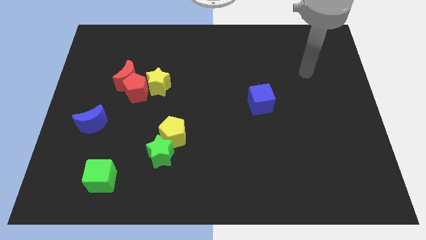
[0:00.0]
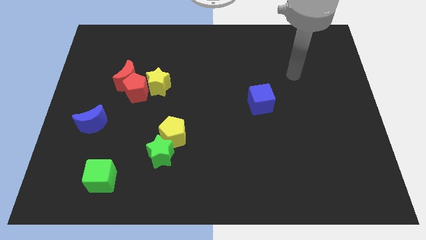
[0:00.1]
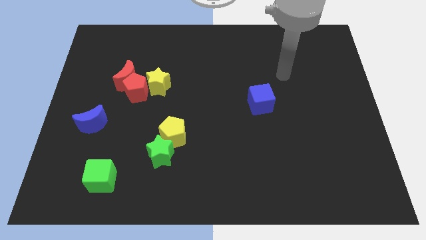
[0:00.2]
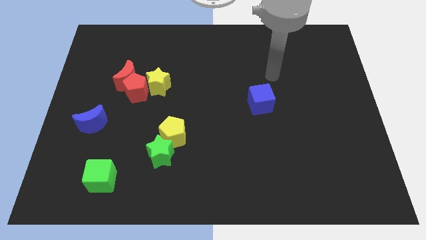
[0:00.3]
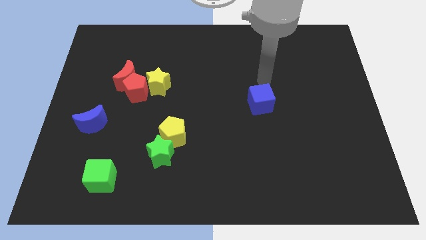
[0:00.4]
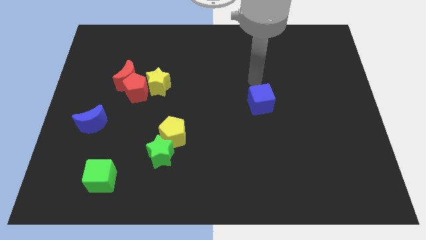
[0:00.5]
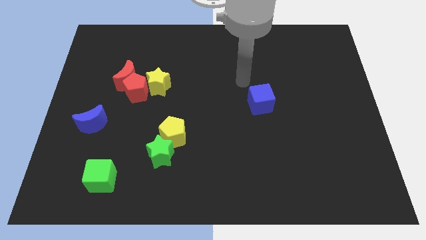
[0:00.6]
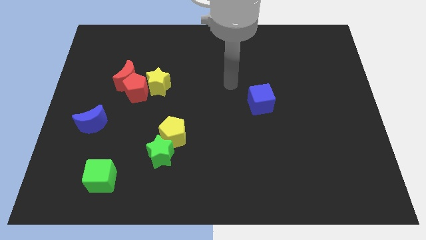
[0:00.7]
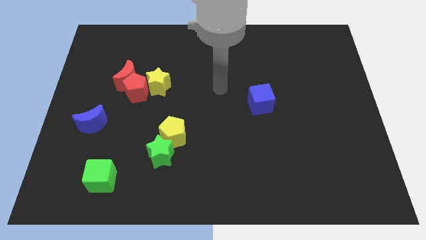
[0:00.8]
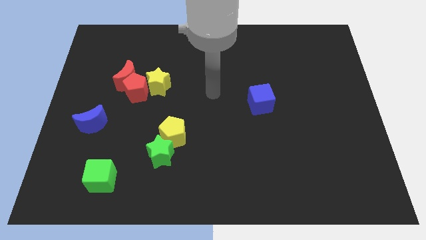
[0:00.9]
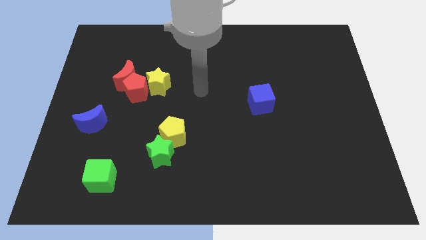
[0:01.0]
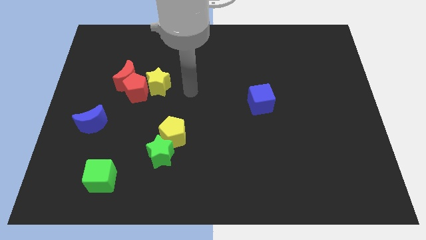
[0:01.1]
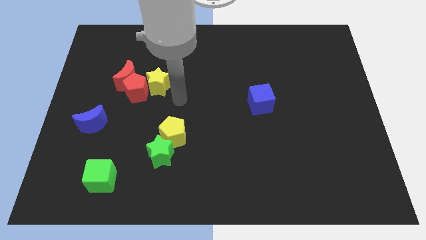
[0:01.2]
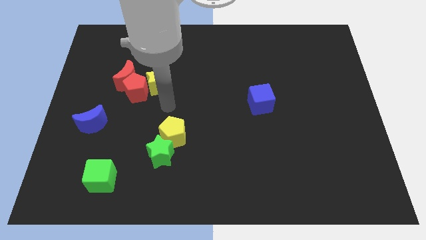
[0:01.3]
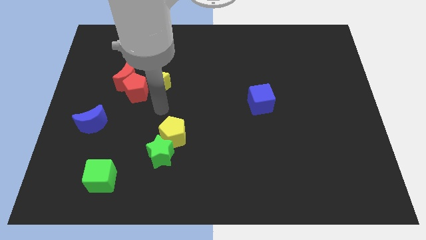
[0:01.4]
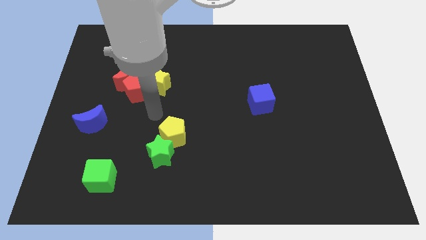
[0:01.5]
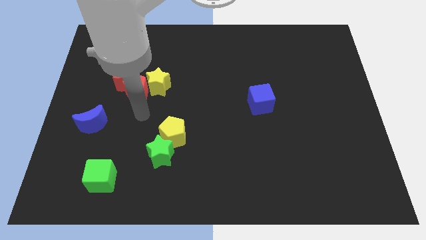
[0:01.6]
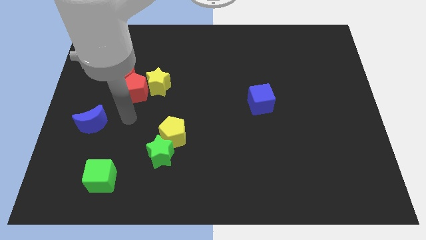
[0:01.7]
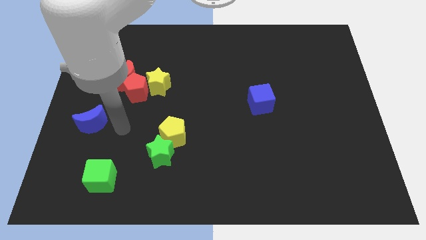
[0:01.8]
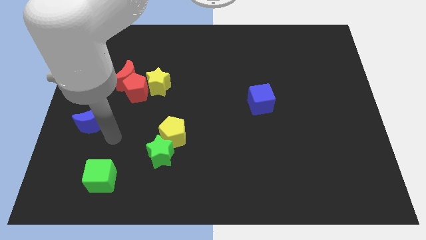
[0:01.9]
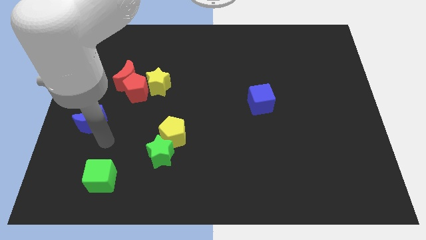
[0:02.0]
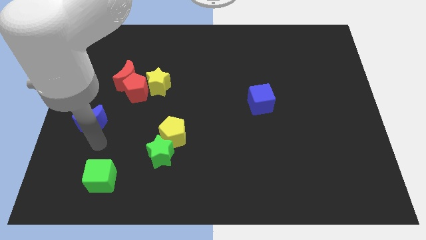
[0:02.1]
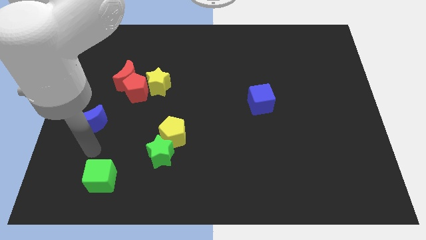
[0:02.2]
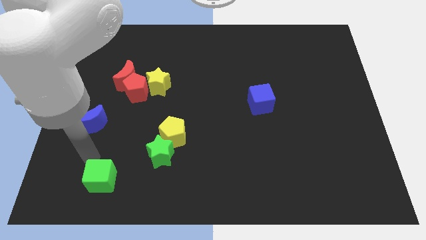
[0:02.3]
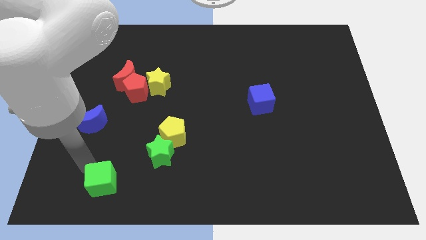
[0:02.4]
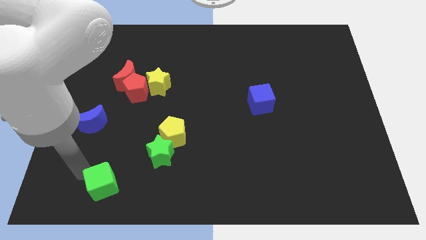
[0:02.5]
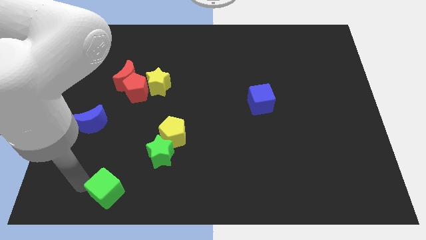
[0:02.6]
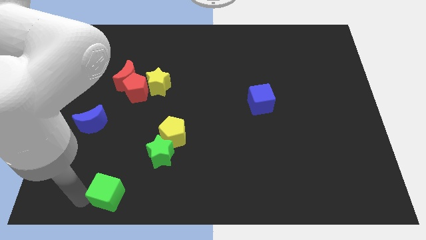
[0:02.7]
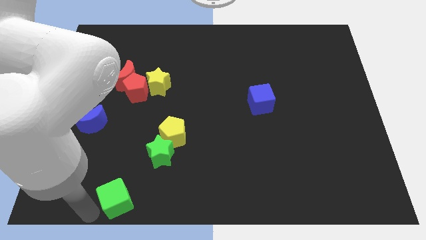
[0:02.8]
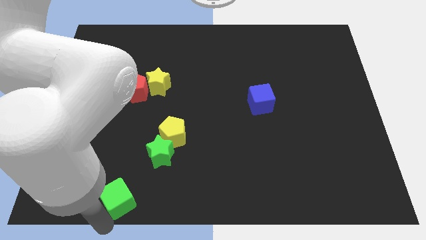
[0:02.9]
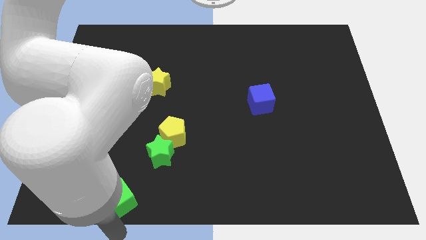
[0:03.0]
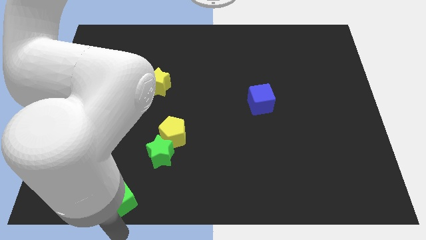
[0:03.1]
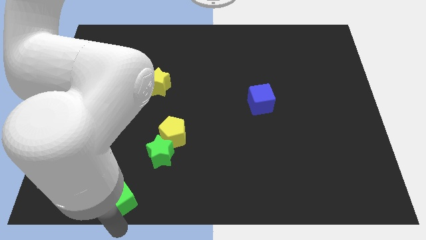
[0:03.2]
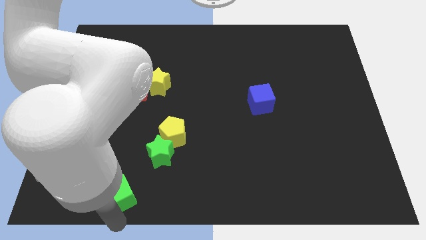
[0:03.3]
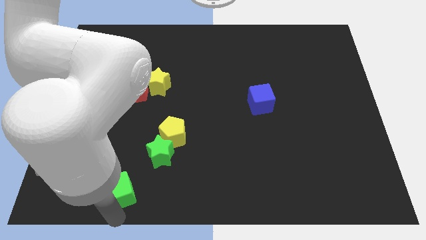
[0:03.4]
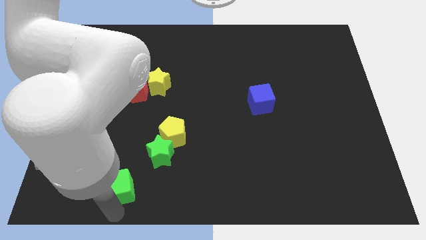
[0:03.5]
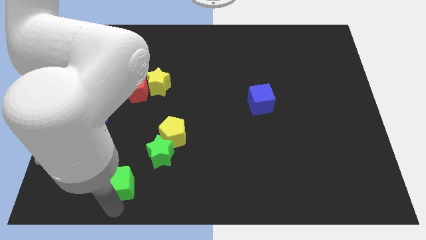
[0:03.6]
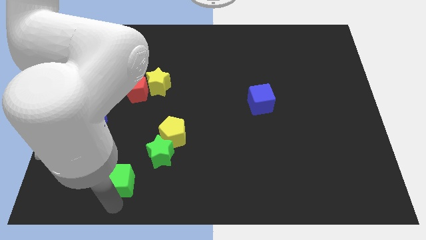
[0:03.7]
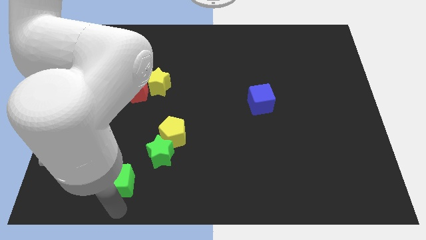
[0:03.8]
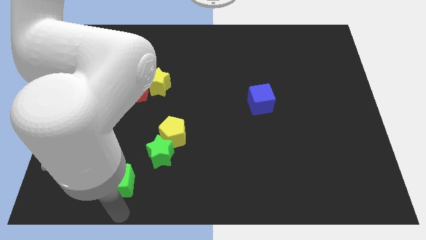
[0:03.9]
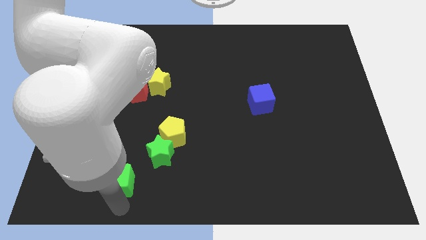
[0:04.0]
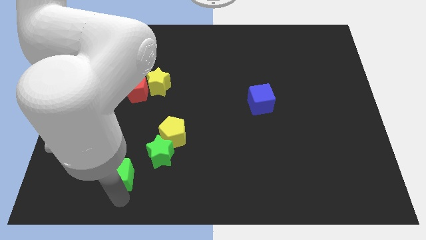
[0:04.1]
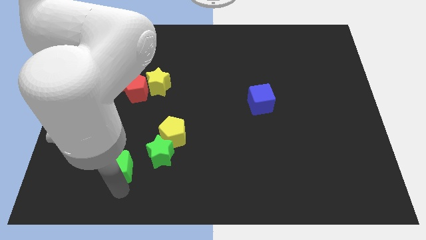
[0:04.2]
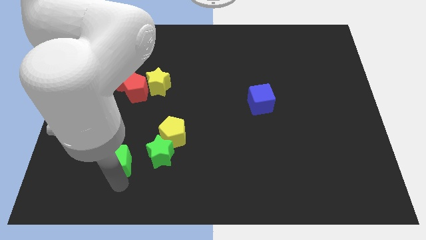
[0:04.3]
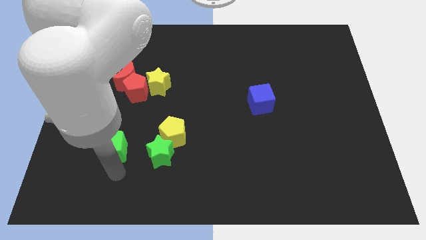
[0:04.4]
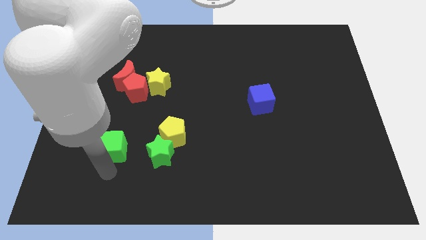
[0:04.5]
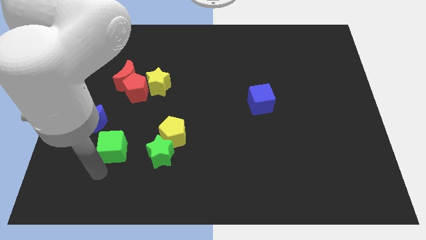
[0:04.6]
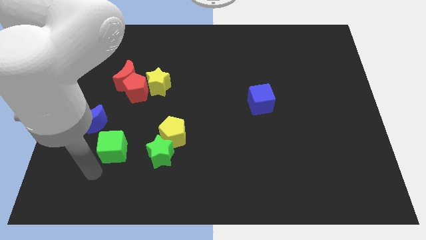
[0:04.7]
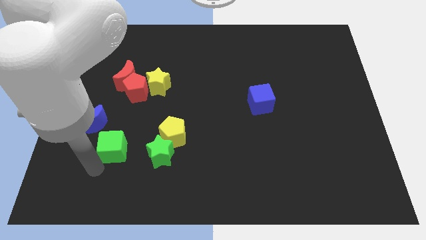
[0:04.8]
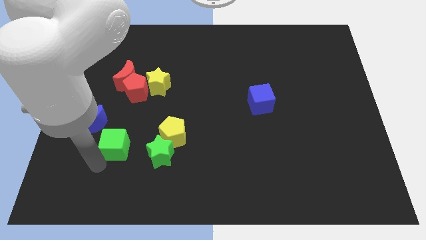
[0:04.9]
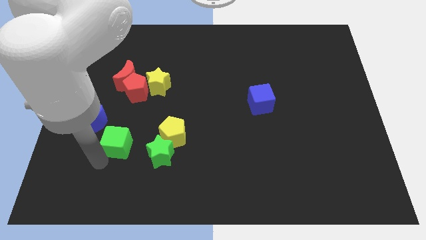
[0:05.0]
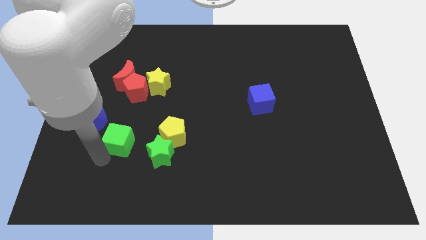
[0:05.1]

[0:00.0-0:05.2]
slide the green cube to the right side of the blue moon

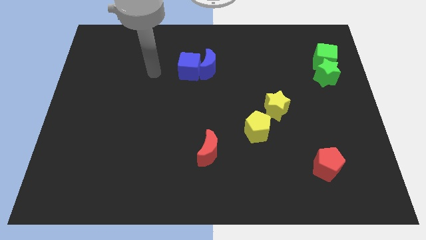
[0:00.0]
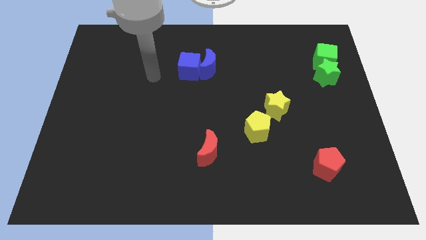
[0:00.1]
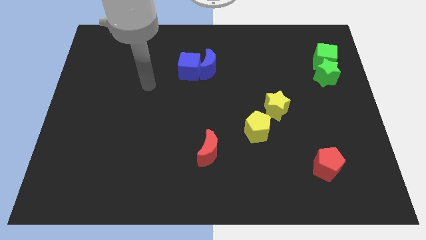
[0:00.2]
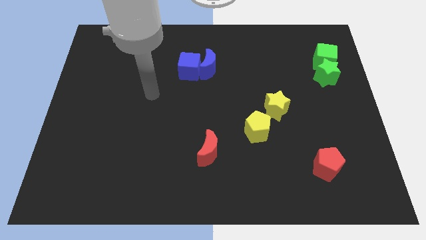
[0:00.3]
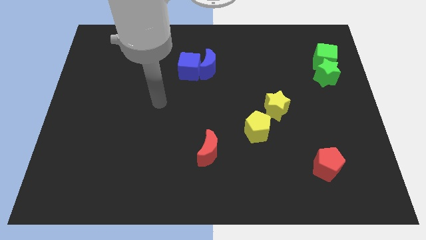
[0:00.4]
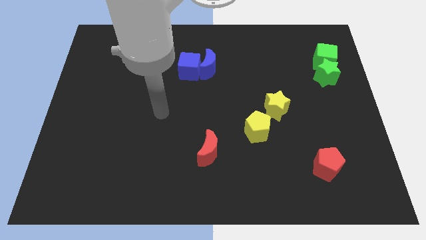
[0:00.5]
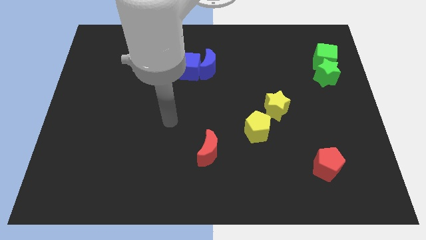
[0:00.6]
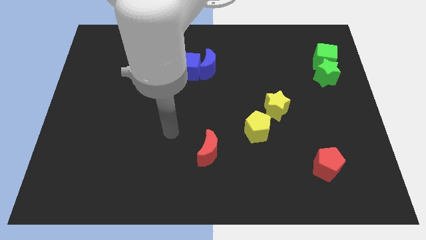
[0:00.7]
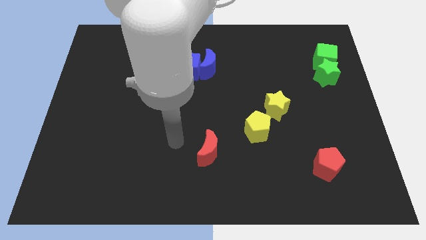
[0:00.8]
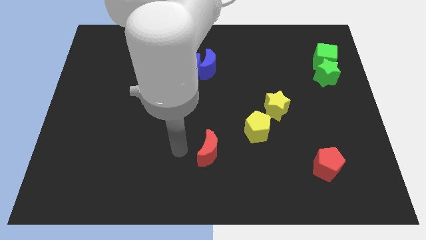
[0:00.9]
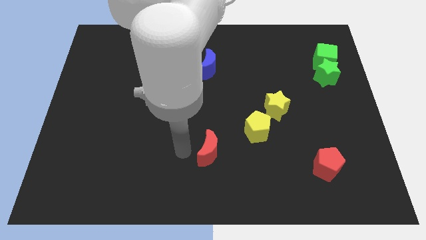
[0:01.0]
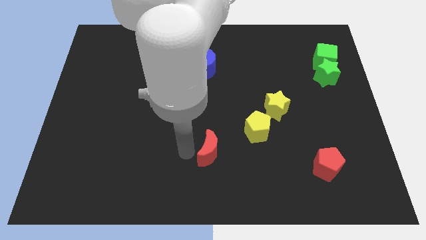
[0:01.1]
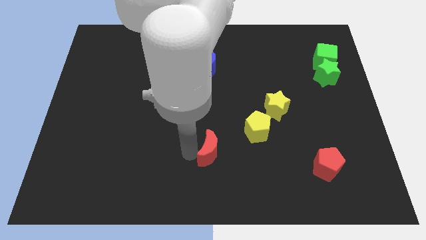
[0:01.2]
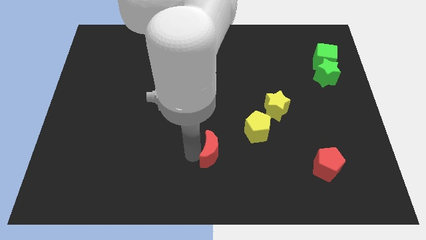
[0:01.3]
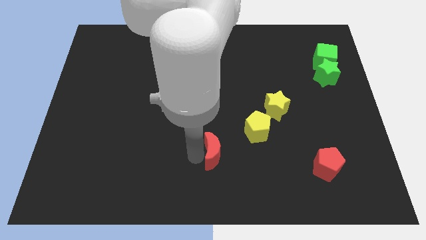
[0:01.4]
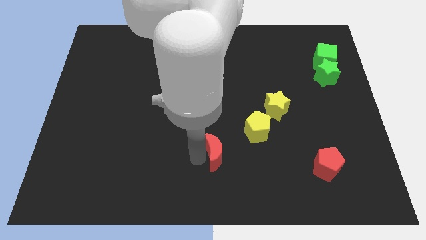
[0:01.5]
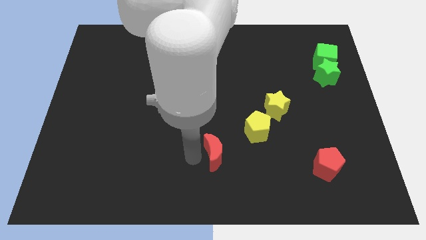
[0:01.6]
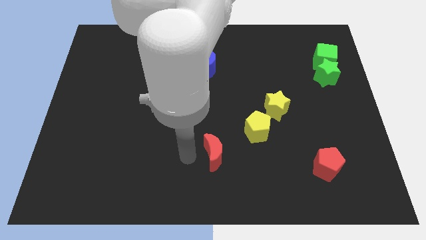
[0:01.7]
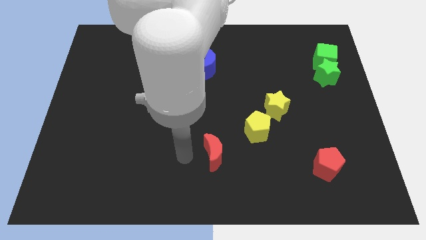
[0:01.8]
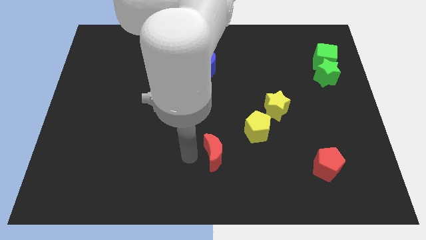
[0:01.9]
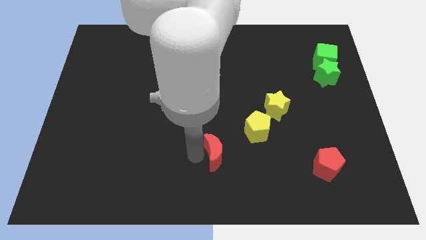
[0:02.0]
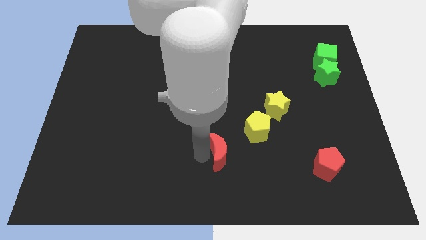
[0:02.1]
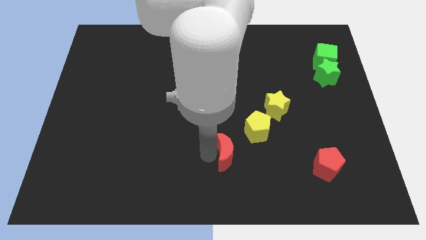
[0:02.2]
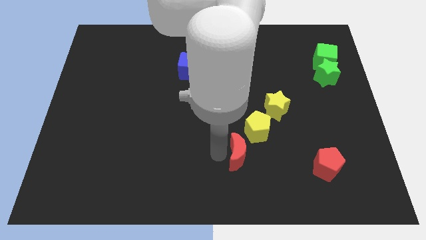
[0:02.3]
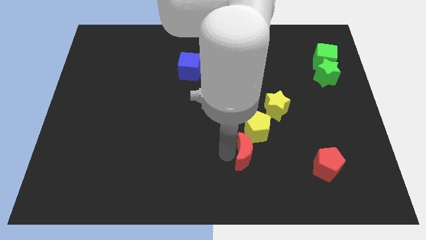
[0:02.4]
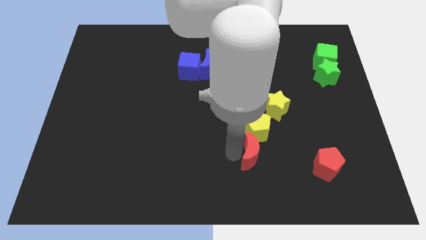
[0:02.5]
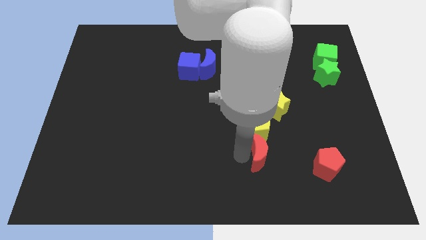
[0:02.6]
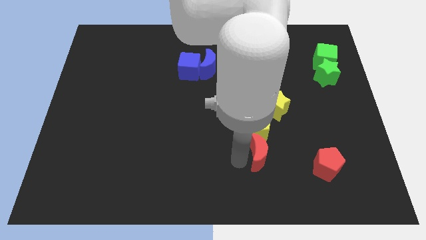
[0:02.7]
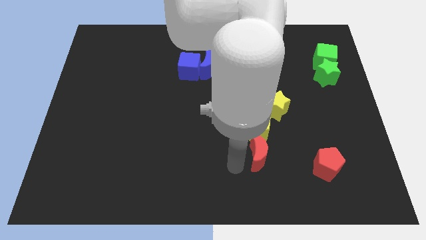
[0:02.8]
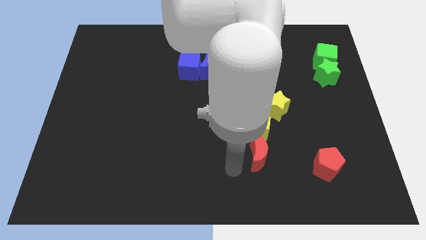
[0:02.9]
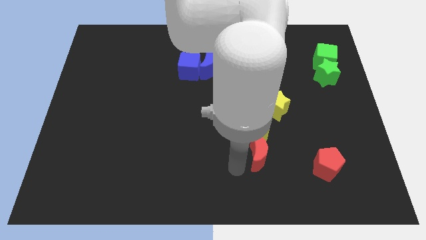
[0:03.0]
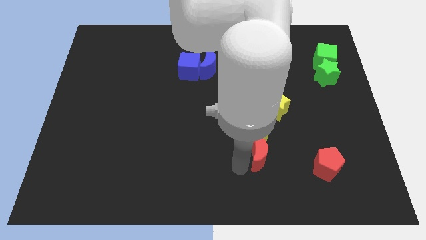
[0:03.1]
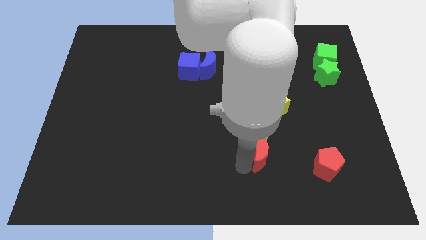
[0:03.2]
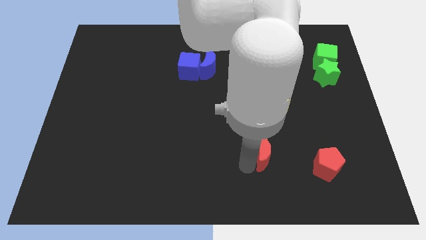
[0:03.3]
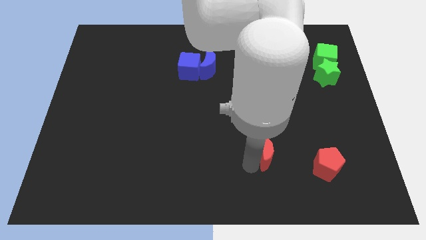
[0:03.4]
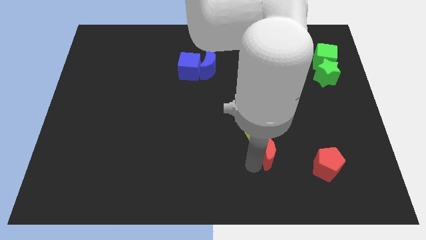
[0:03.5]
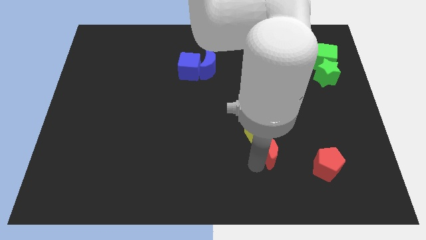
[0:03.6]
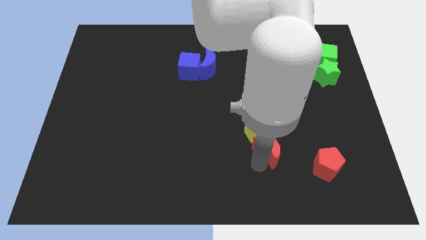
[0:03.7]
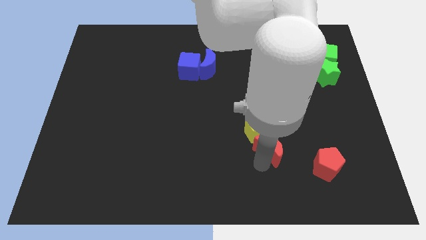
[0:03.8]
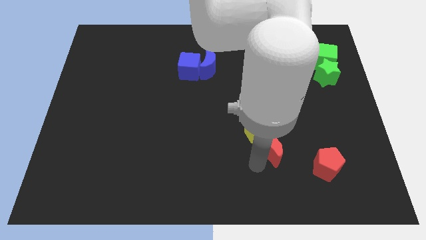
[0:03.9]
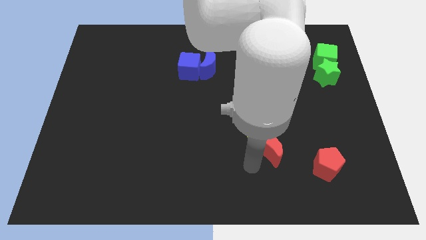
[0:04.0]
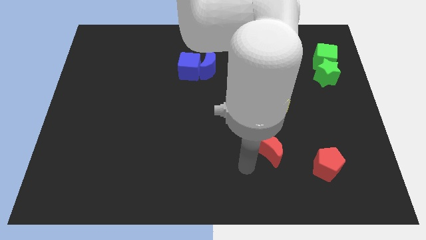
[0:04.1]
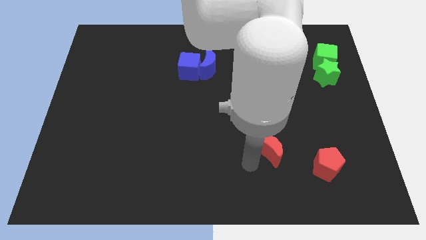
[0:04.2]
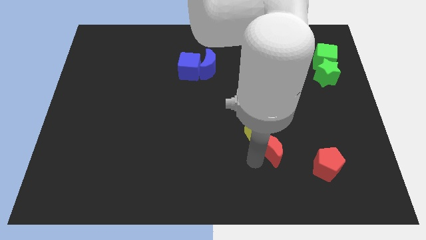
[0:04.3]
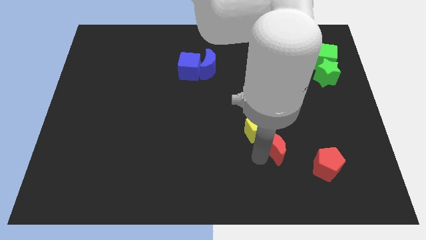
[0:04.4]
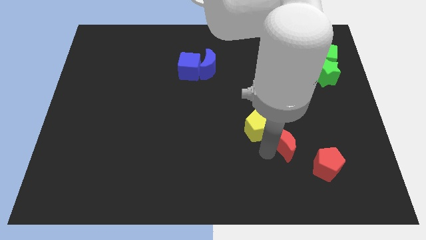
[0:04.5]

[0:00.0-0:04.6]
put the red moon to the right side of the yellow pentagon
